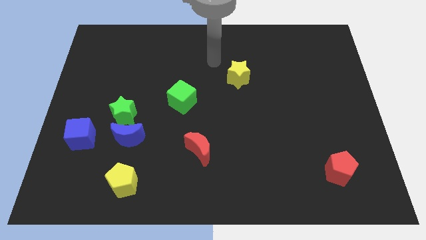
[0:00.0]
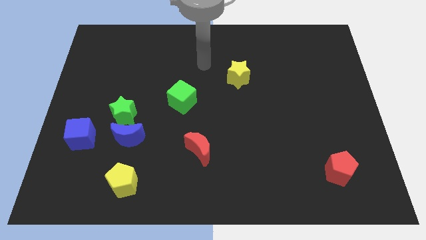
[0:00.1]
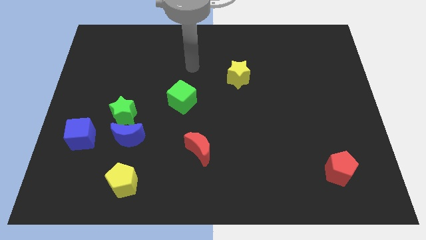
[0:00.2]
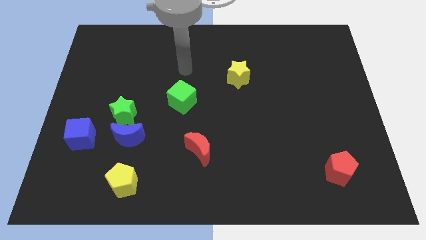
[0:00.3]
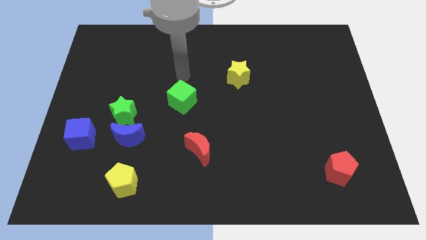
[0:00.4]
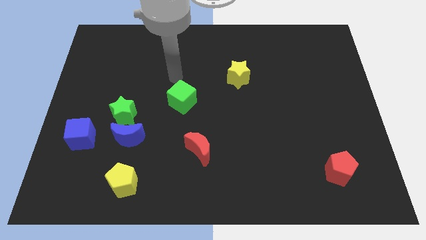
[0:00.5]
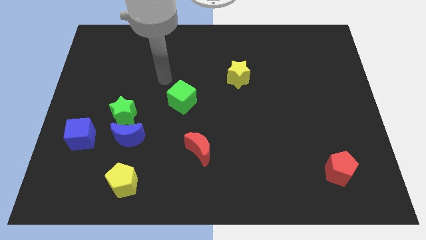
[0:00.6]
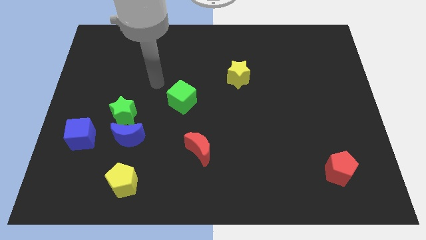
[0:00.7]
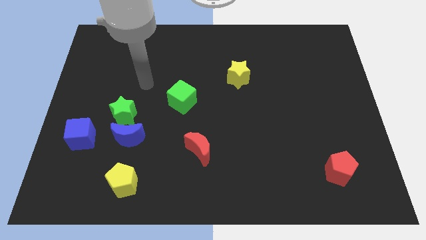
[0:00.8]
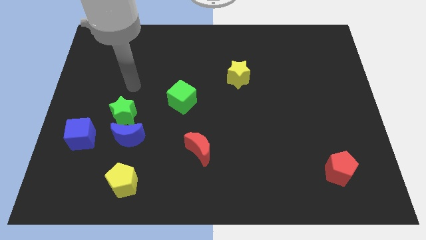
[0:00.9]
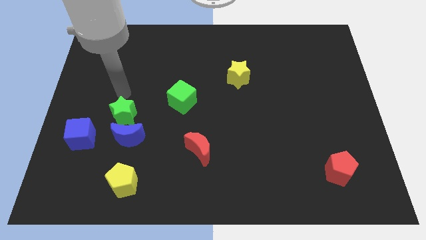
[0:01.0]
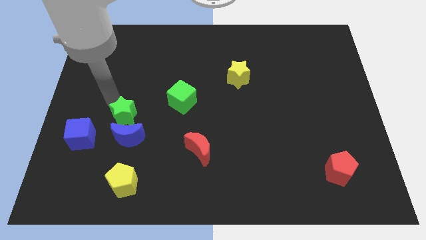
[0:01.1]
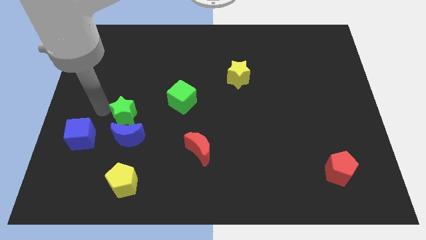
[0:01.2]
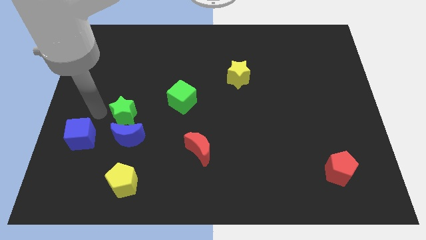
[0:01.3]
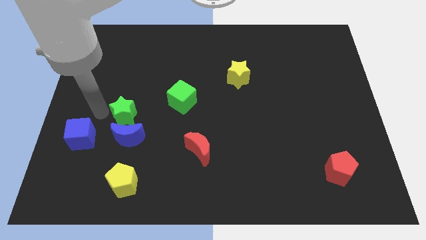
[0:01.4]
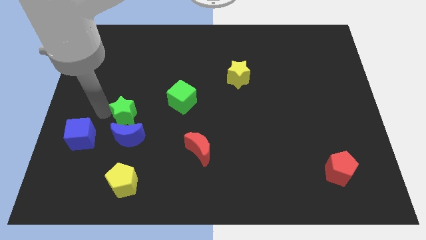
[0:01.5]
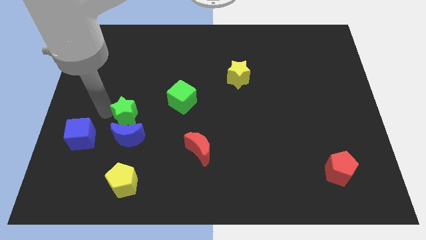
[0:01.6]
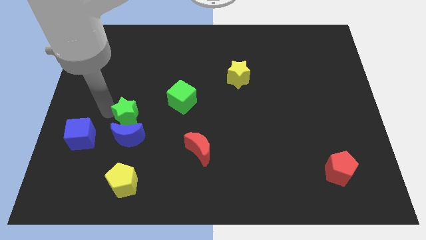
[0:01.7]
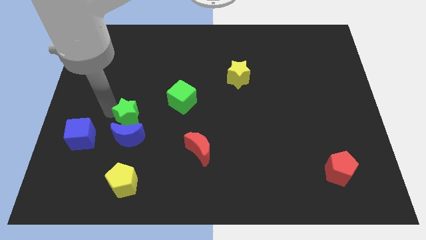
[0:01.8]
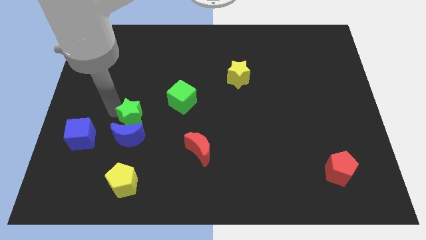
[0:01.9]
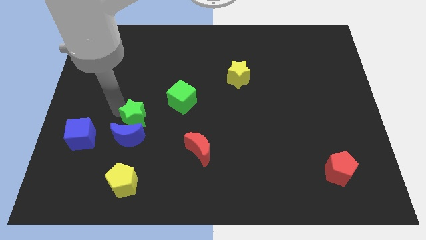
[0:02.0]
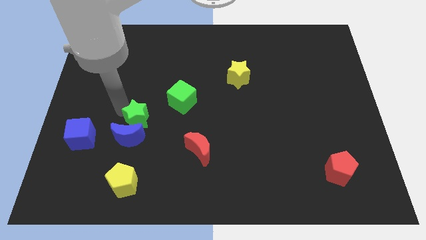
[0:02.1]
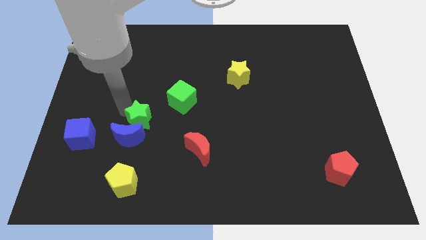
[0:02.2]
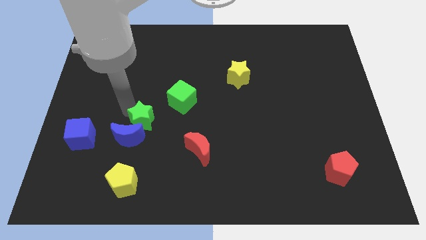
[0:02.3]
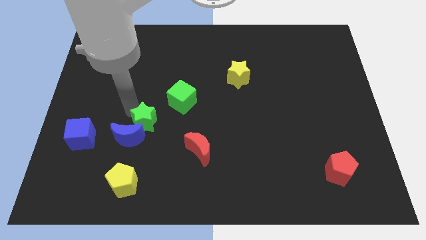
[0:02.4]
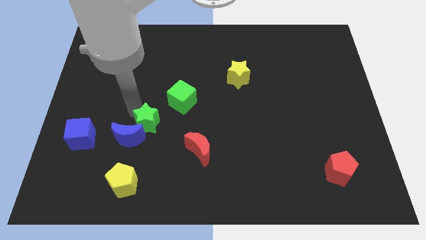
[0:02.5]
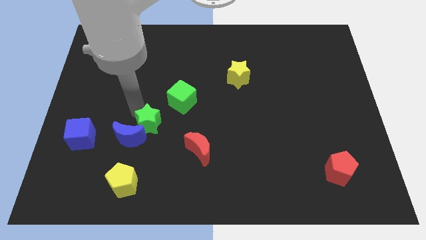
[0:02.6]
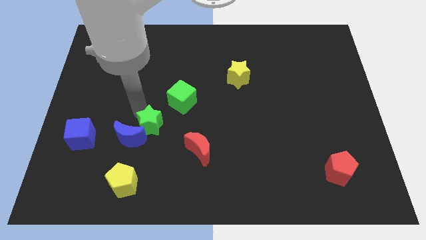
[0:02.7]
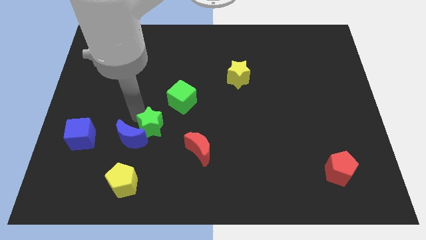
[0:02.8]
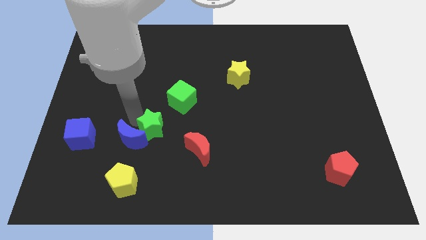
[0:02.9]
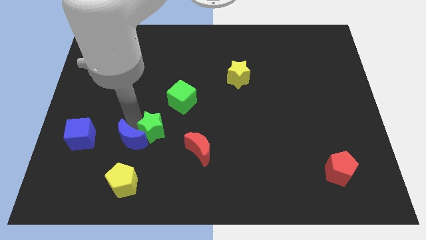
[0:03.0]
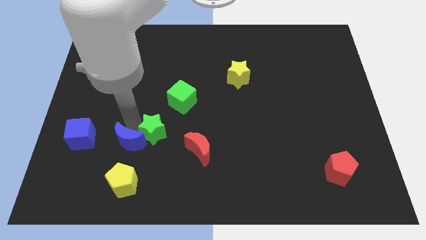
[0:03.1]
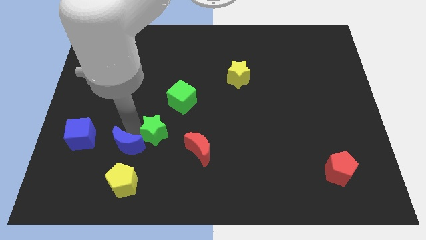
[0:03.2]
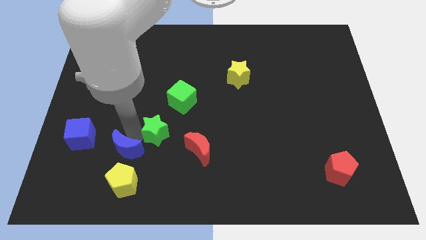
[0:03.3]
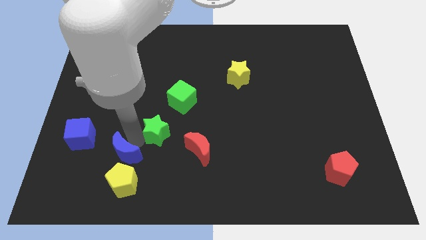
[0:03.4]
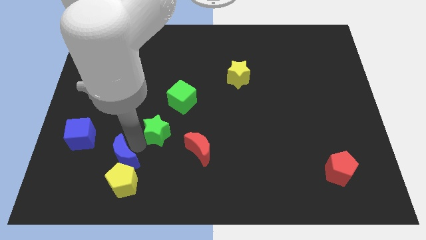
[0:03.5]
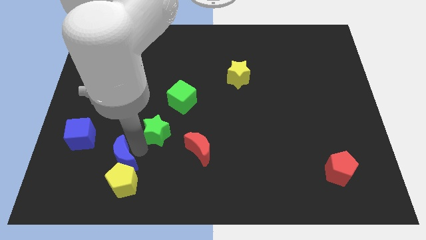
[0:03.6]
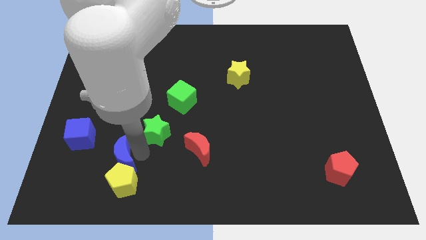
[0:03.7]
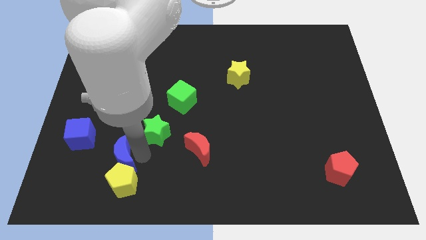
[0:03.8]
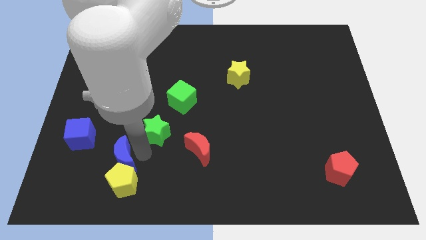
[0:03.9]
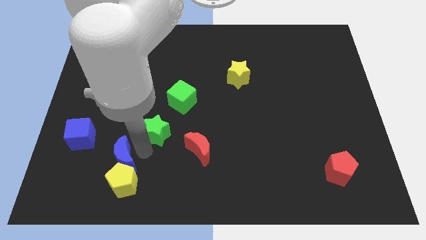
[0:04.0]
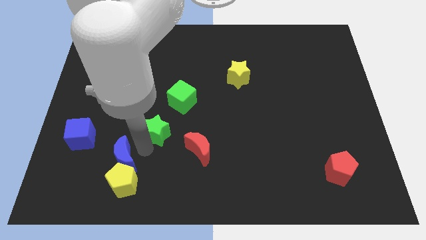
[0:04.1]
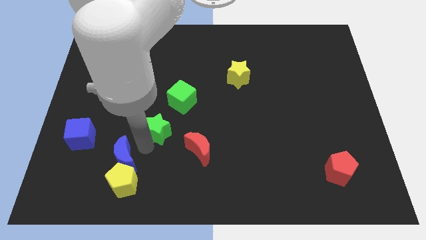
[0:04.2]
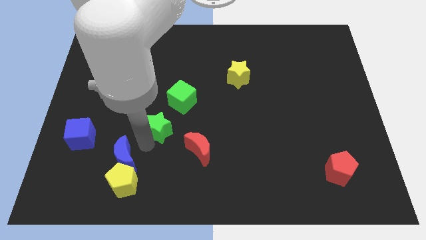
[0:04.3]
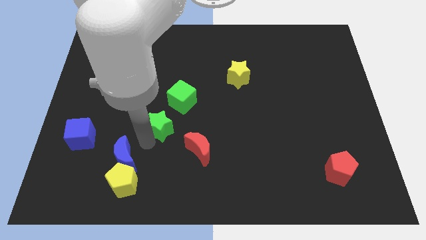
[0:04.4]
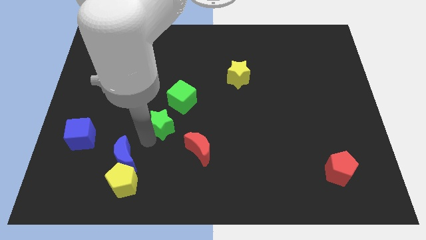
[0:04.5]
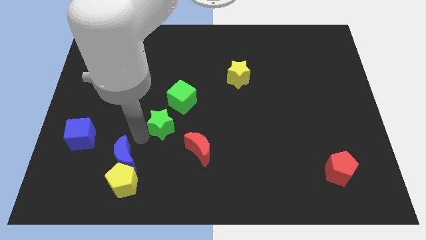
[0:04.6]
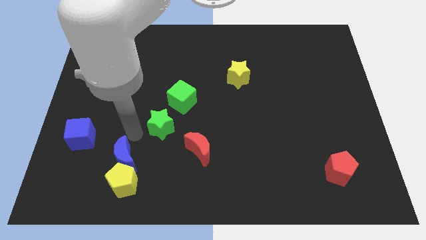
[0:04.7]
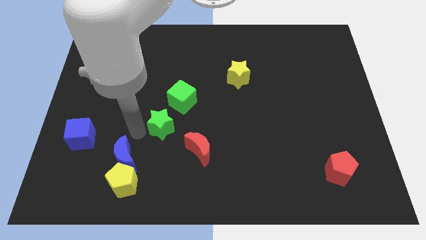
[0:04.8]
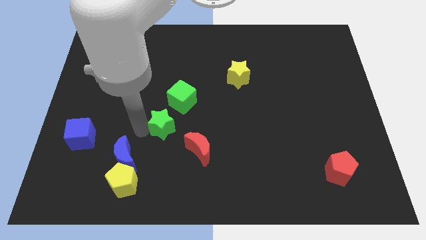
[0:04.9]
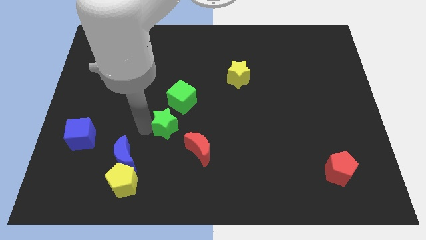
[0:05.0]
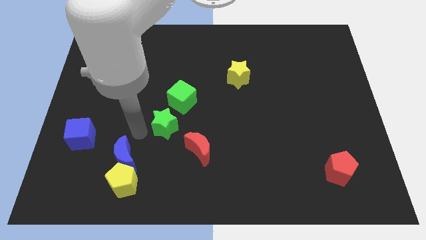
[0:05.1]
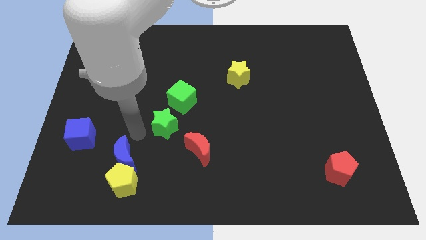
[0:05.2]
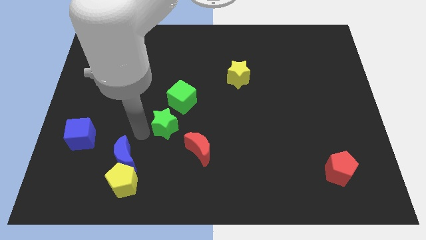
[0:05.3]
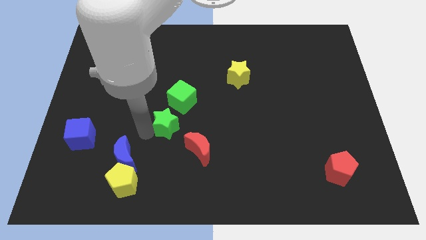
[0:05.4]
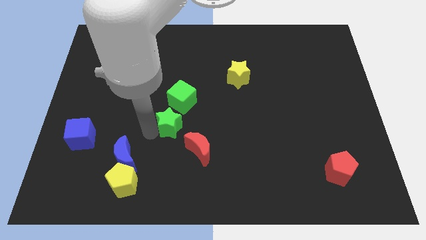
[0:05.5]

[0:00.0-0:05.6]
push the green star to the center

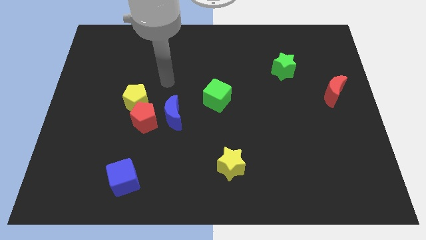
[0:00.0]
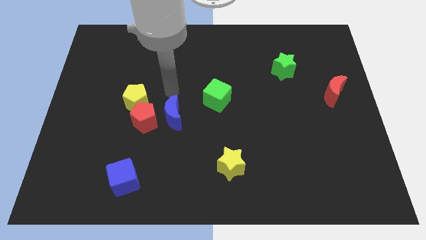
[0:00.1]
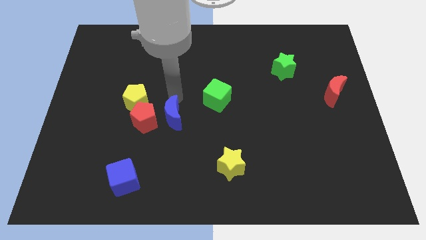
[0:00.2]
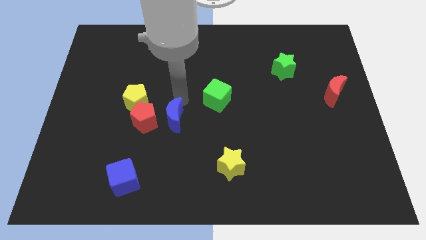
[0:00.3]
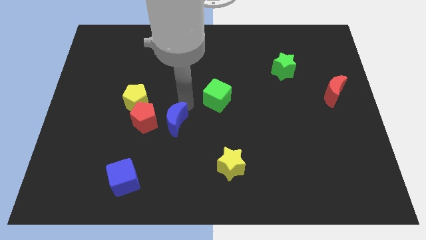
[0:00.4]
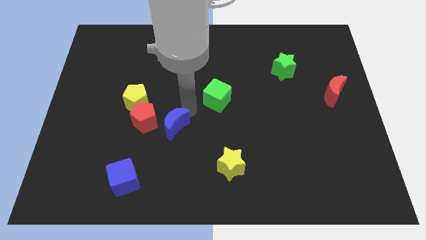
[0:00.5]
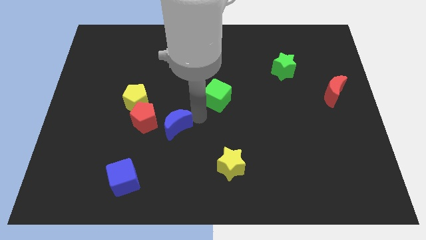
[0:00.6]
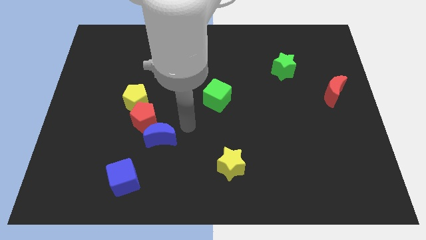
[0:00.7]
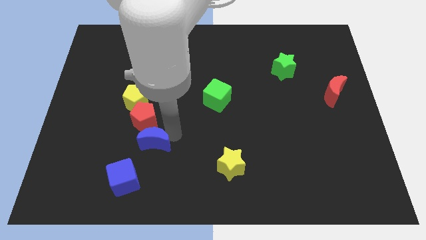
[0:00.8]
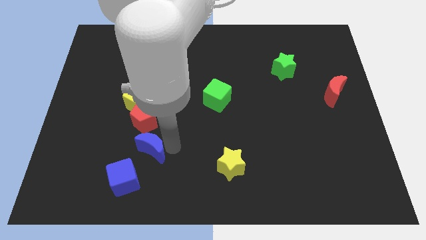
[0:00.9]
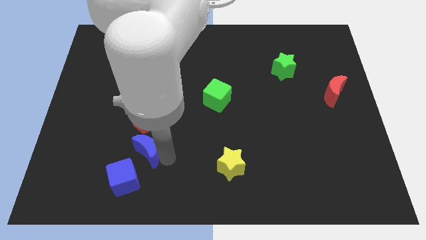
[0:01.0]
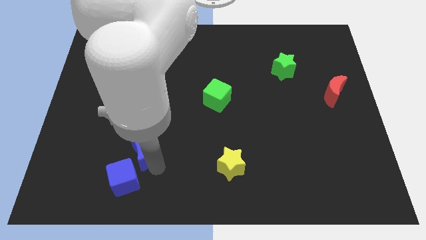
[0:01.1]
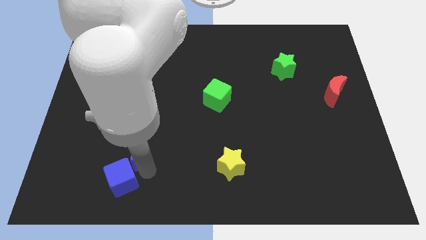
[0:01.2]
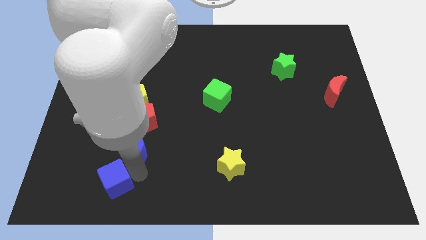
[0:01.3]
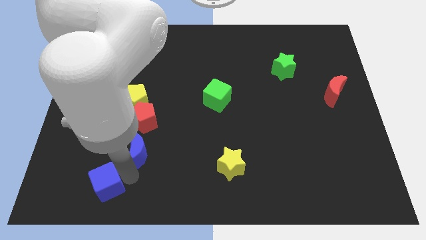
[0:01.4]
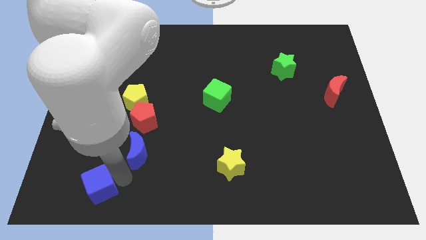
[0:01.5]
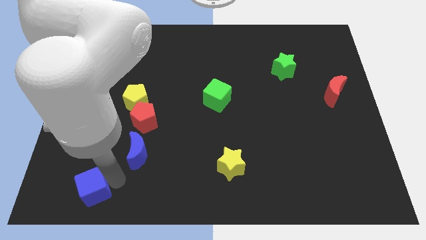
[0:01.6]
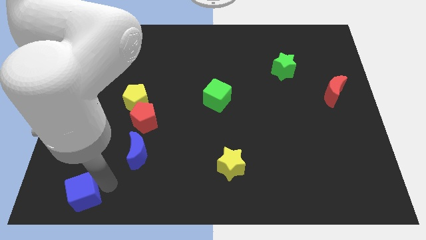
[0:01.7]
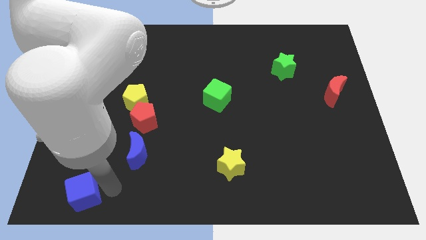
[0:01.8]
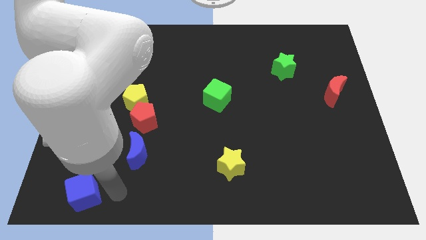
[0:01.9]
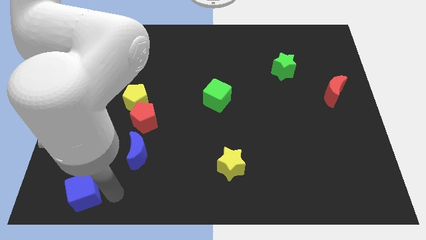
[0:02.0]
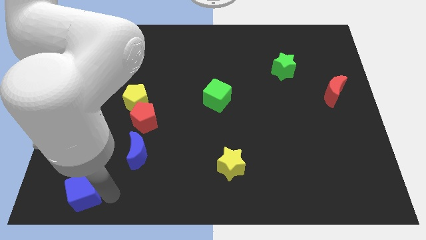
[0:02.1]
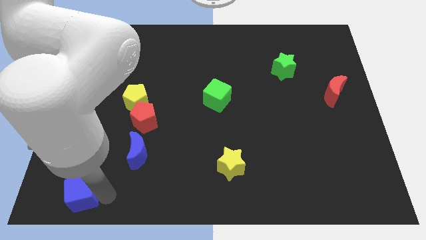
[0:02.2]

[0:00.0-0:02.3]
move the blue cube to the bottom left corner
